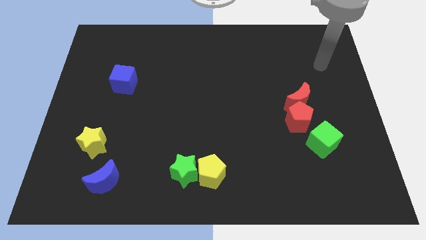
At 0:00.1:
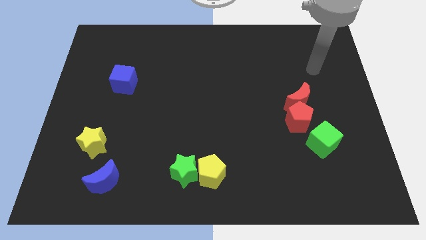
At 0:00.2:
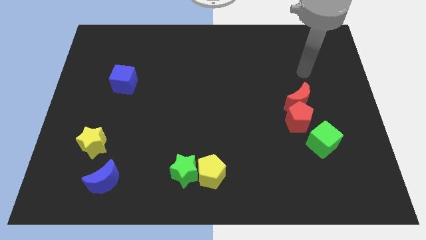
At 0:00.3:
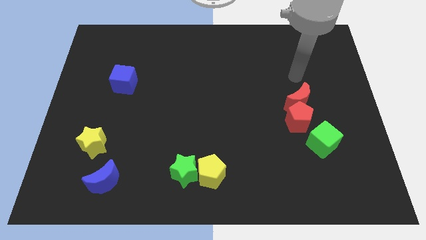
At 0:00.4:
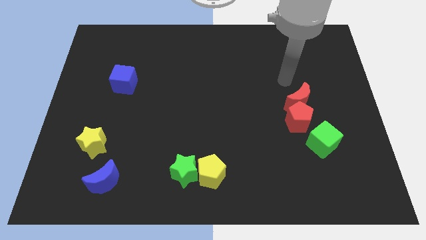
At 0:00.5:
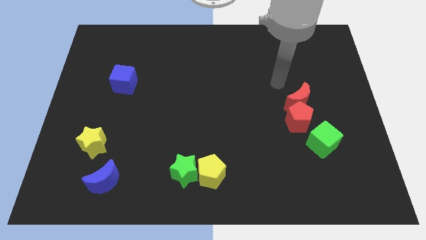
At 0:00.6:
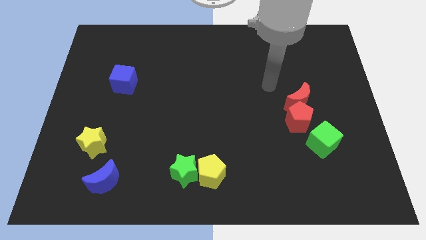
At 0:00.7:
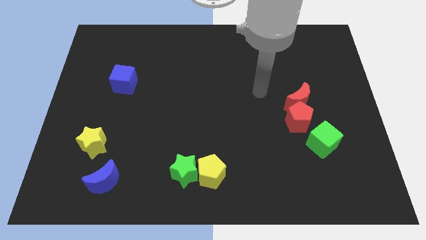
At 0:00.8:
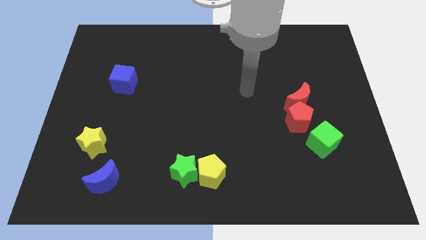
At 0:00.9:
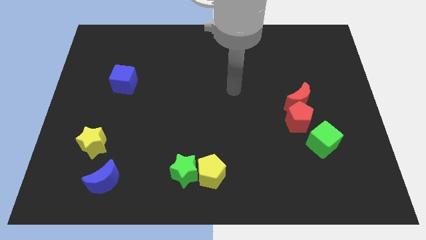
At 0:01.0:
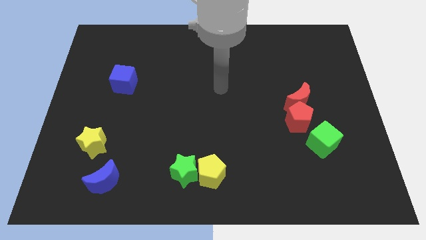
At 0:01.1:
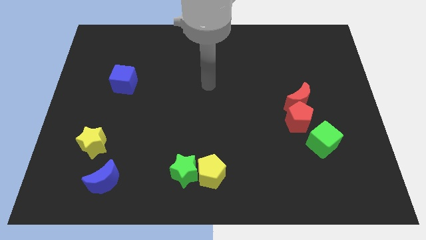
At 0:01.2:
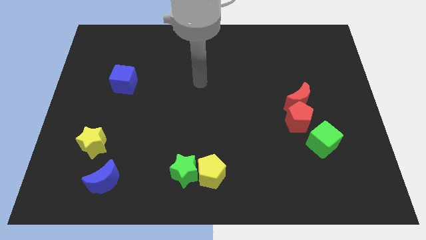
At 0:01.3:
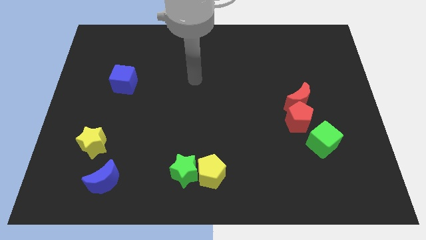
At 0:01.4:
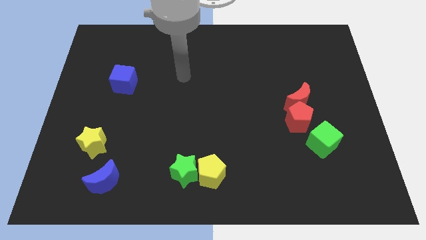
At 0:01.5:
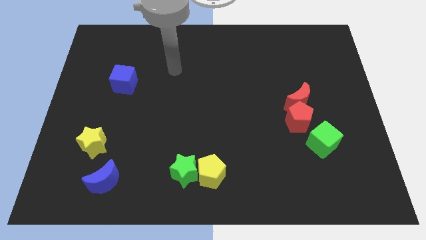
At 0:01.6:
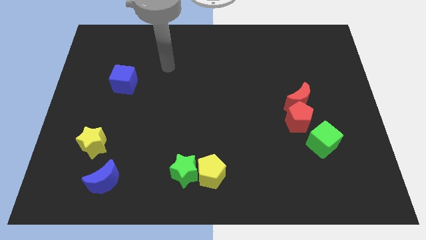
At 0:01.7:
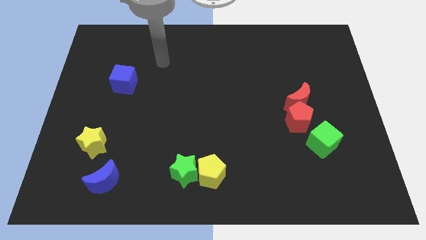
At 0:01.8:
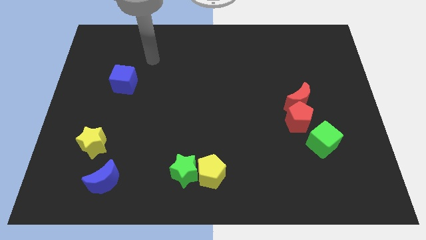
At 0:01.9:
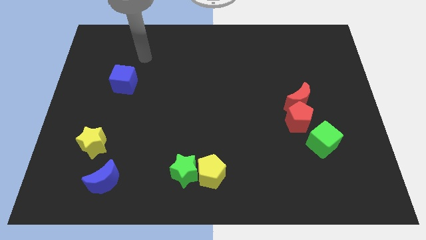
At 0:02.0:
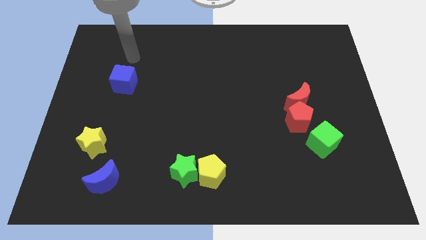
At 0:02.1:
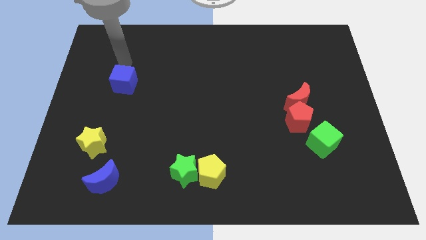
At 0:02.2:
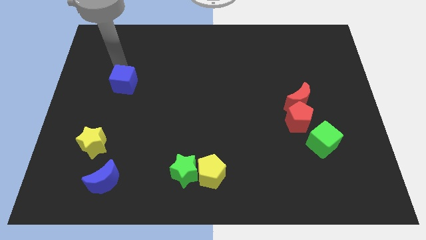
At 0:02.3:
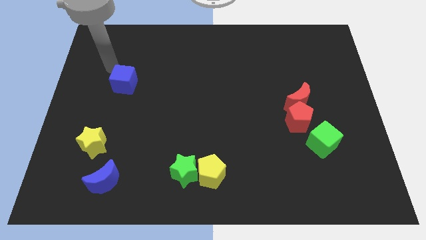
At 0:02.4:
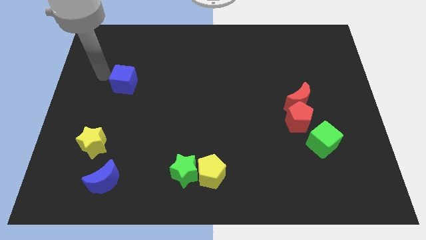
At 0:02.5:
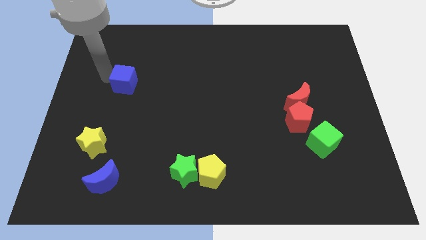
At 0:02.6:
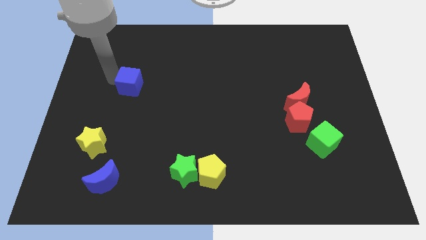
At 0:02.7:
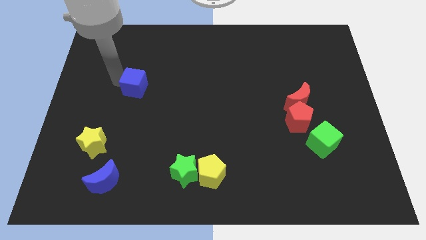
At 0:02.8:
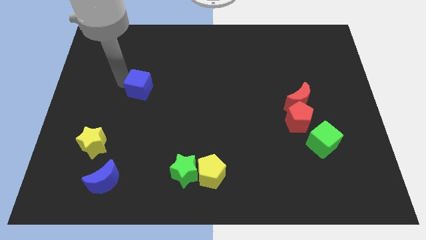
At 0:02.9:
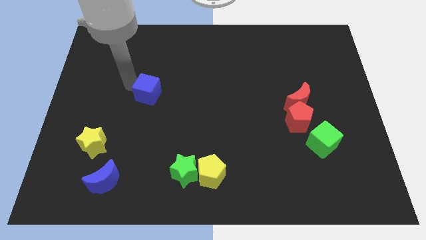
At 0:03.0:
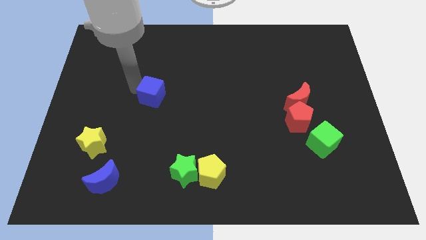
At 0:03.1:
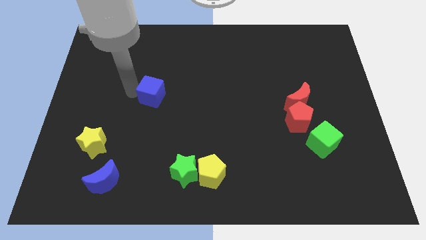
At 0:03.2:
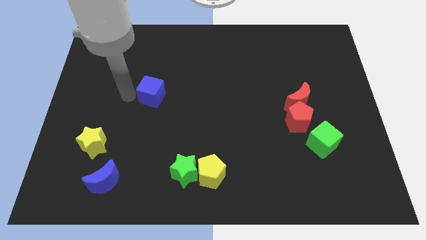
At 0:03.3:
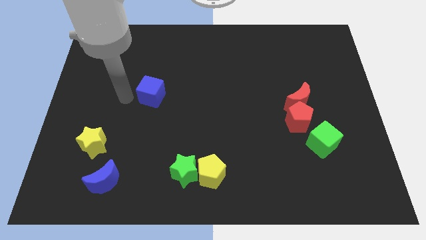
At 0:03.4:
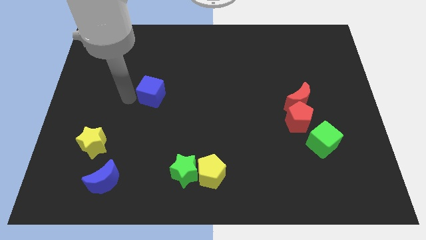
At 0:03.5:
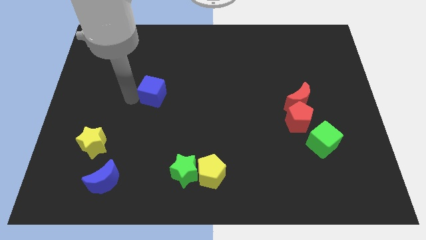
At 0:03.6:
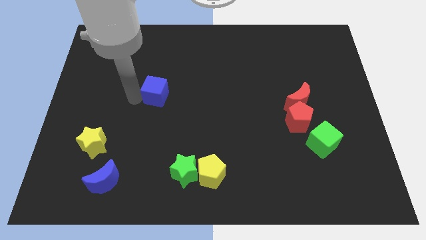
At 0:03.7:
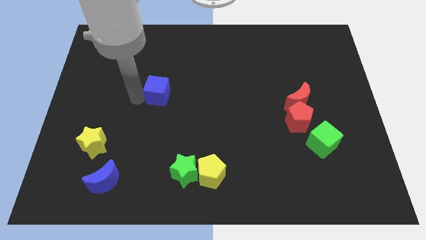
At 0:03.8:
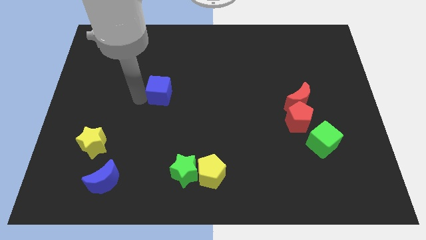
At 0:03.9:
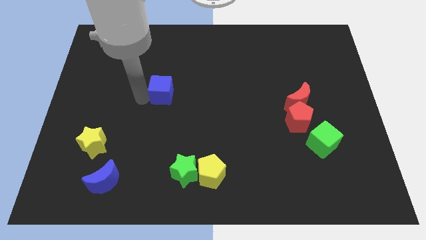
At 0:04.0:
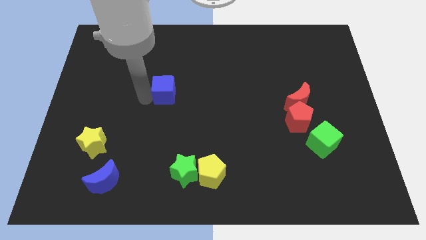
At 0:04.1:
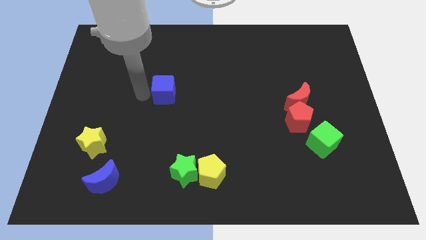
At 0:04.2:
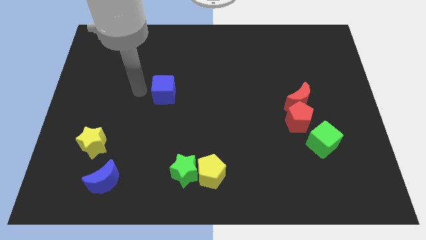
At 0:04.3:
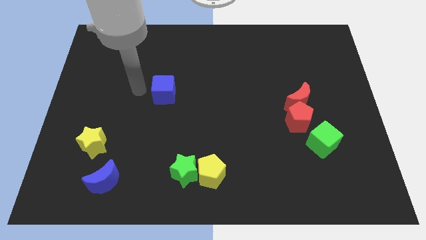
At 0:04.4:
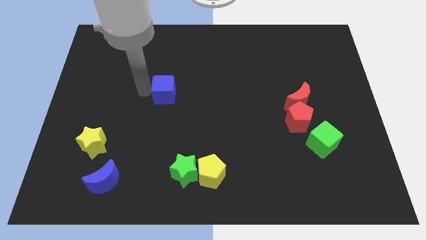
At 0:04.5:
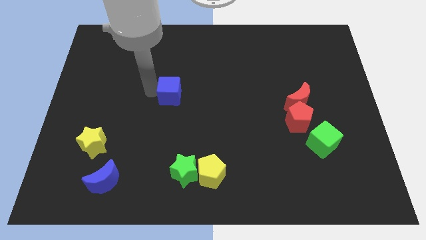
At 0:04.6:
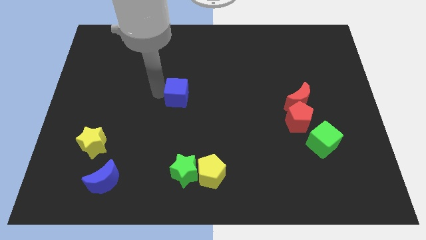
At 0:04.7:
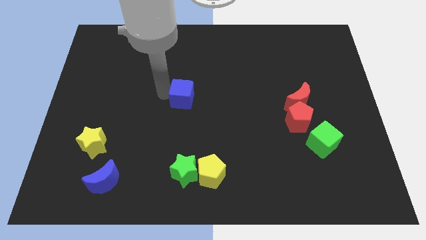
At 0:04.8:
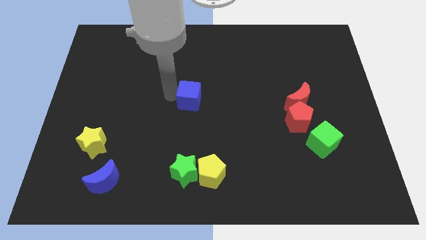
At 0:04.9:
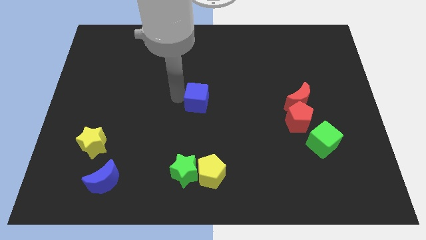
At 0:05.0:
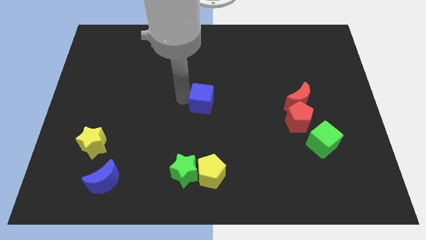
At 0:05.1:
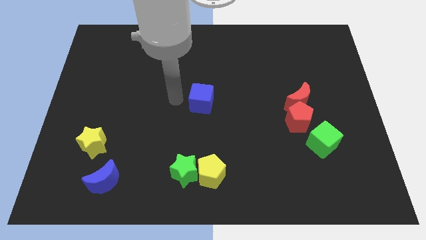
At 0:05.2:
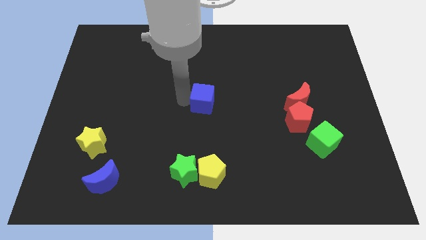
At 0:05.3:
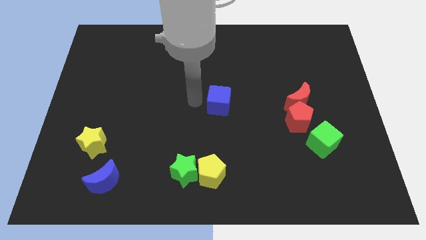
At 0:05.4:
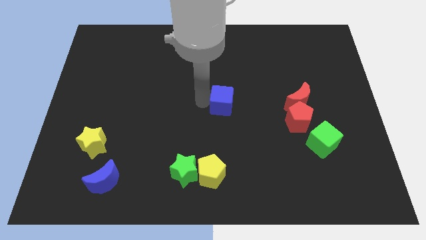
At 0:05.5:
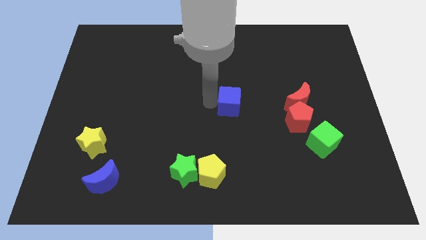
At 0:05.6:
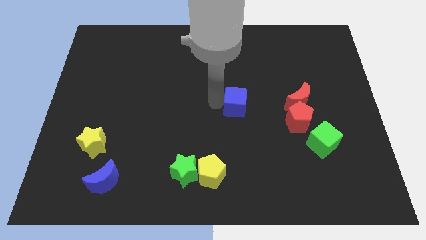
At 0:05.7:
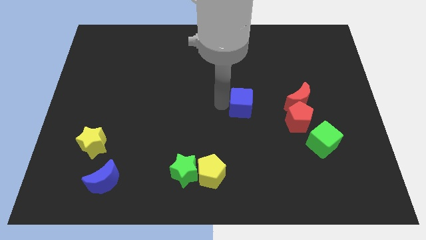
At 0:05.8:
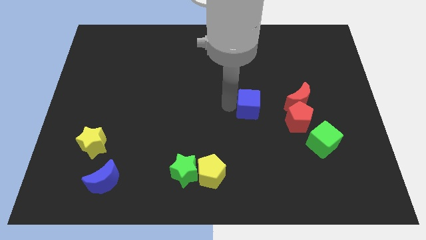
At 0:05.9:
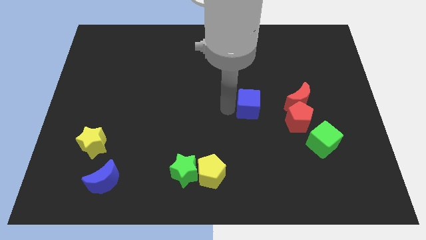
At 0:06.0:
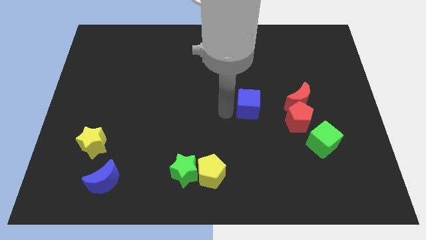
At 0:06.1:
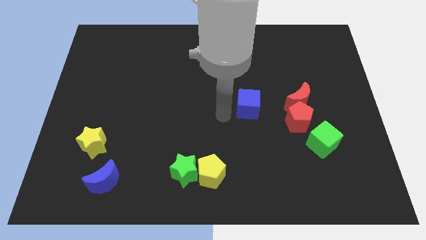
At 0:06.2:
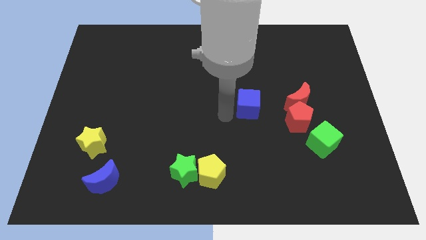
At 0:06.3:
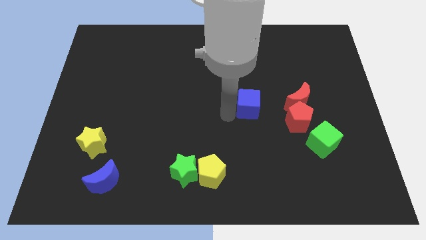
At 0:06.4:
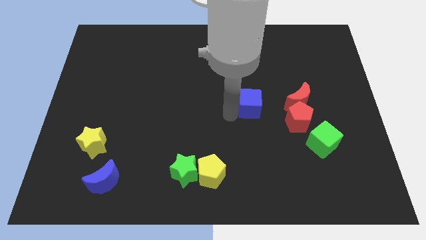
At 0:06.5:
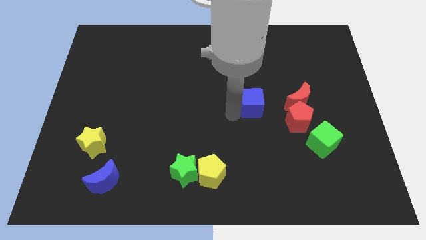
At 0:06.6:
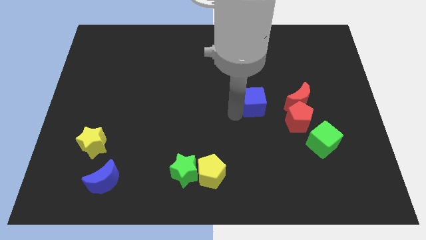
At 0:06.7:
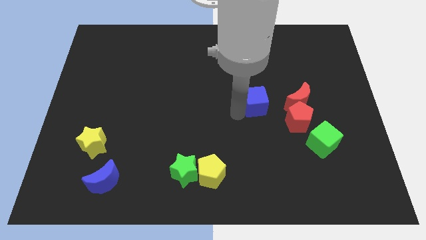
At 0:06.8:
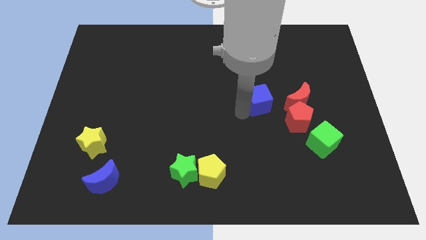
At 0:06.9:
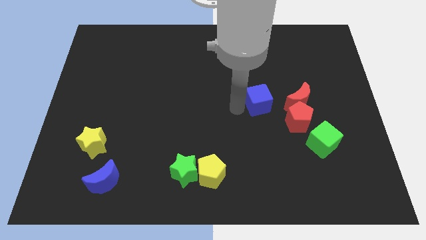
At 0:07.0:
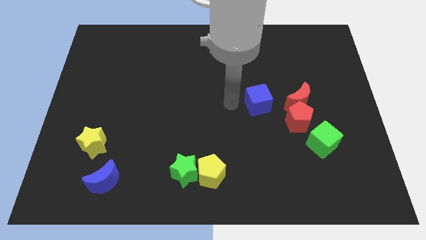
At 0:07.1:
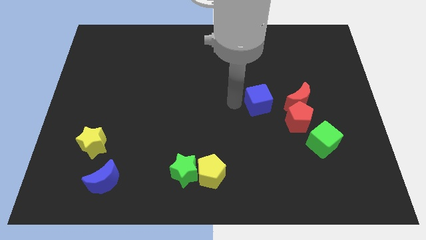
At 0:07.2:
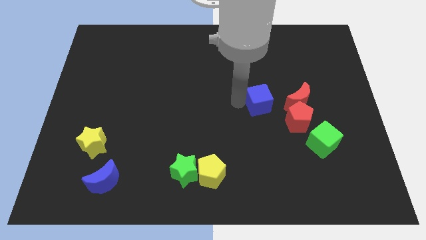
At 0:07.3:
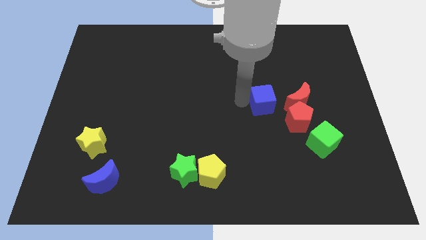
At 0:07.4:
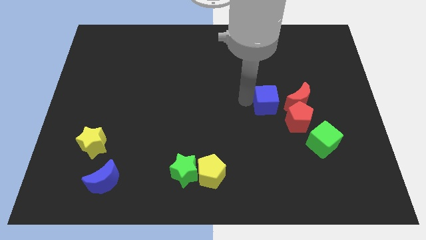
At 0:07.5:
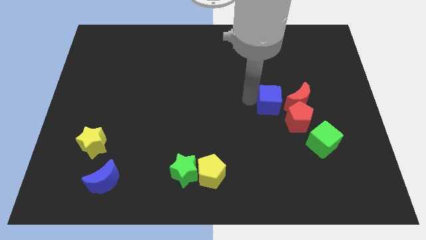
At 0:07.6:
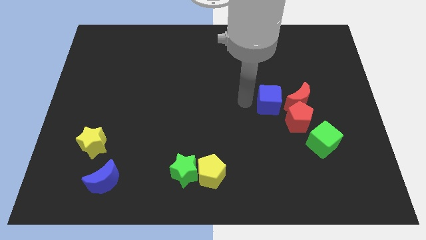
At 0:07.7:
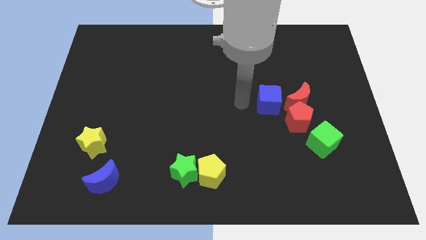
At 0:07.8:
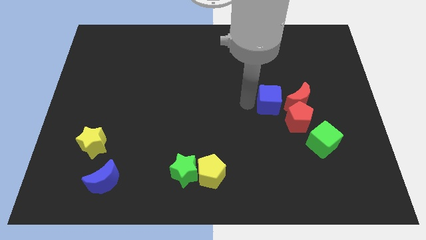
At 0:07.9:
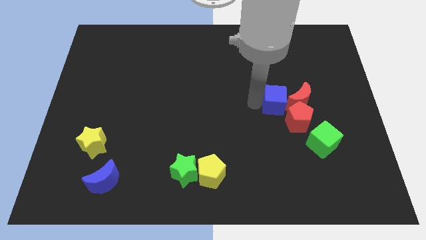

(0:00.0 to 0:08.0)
move the blue cube next to the red moon

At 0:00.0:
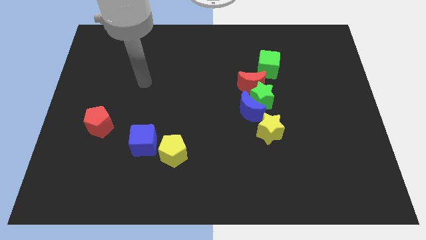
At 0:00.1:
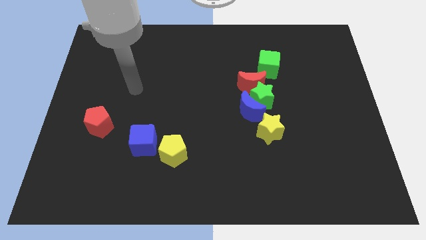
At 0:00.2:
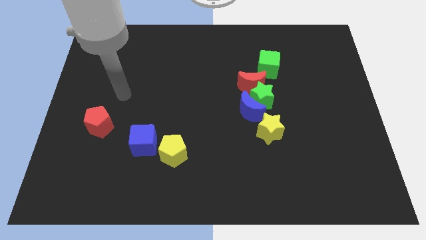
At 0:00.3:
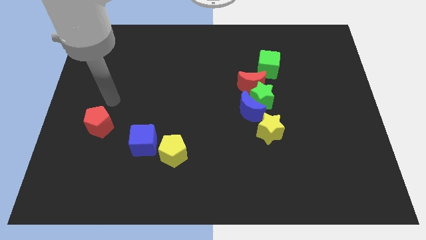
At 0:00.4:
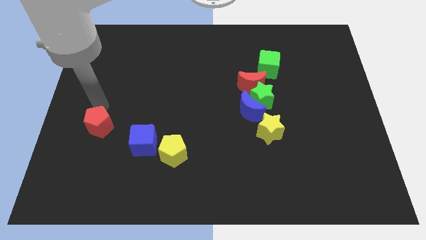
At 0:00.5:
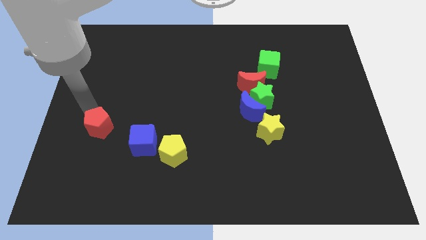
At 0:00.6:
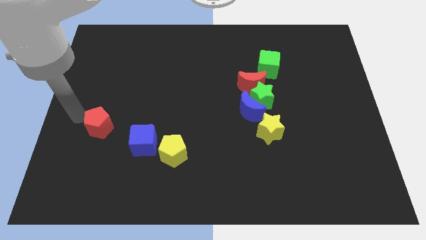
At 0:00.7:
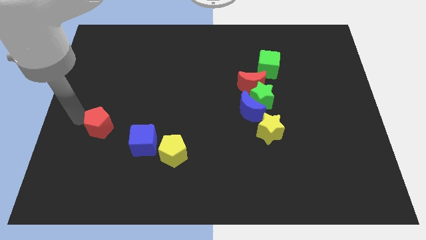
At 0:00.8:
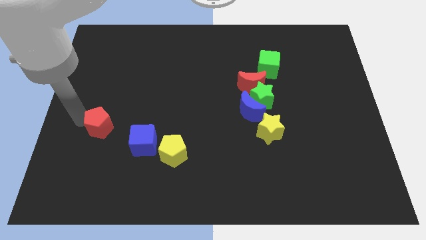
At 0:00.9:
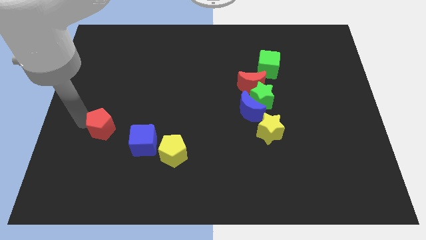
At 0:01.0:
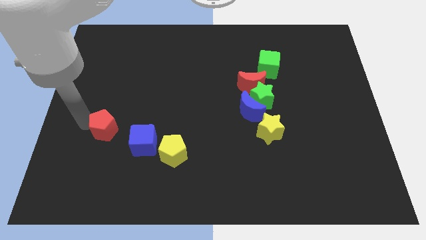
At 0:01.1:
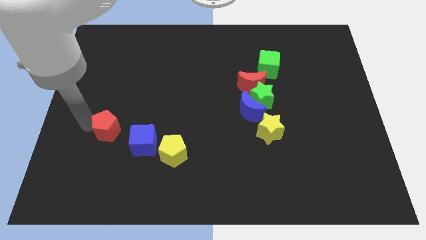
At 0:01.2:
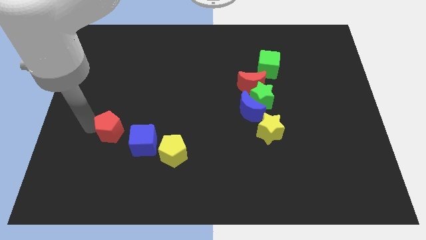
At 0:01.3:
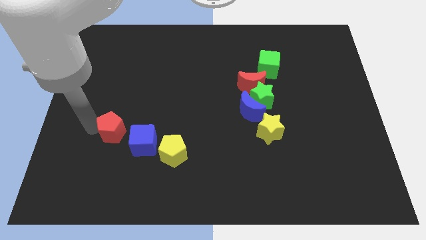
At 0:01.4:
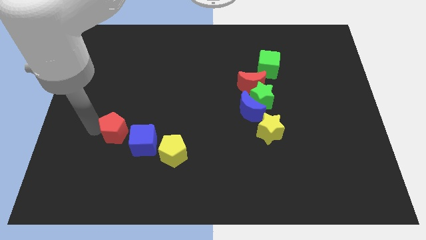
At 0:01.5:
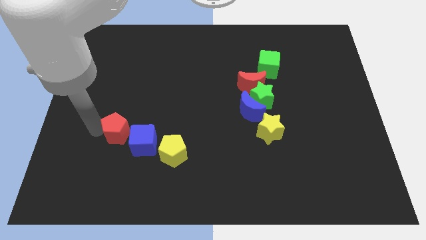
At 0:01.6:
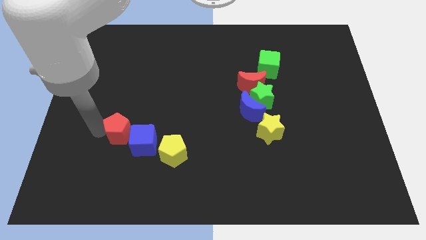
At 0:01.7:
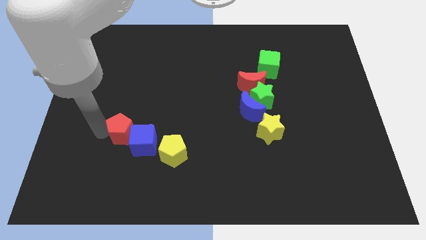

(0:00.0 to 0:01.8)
slide the red pentagon to the blue cube
